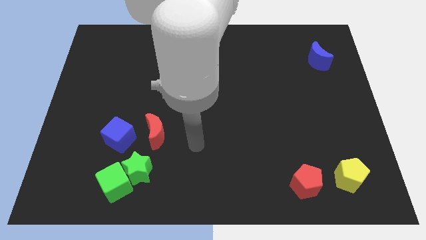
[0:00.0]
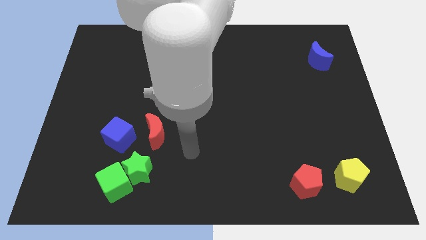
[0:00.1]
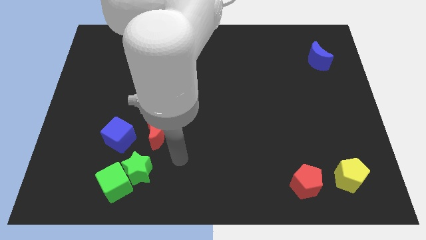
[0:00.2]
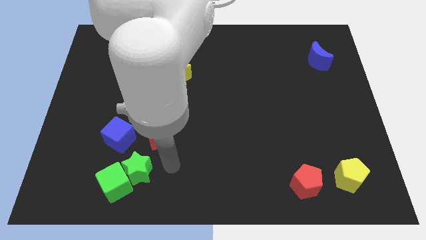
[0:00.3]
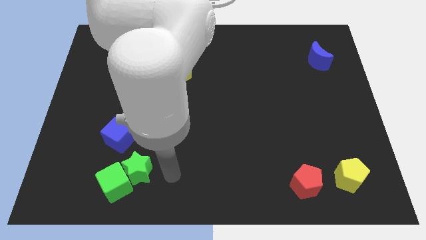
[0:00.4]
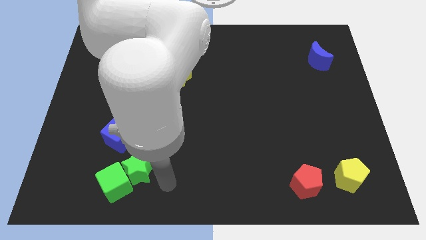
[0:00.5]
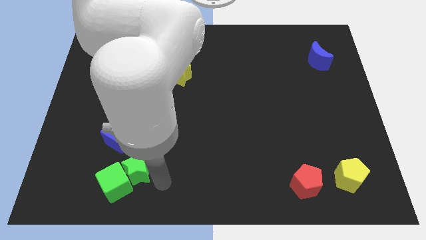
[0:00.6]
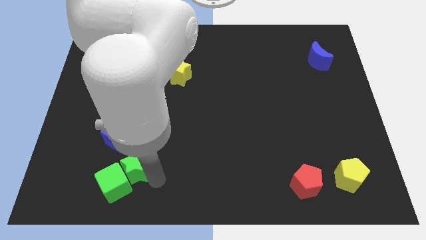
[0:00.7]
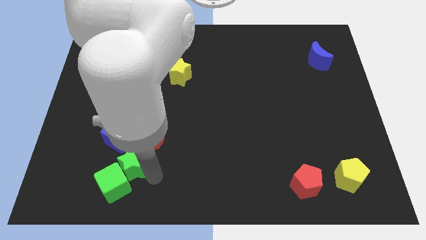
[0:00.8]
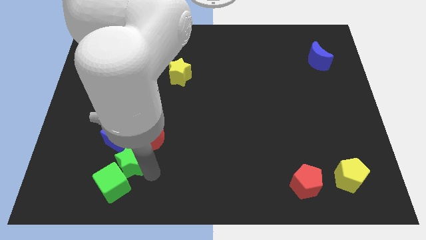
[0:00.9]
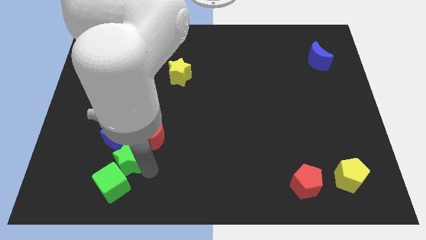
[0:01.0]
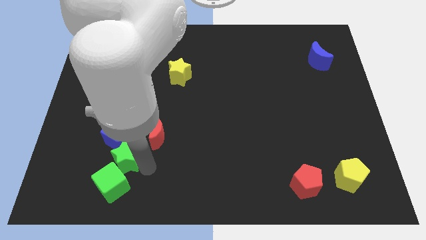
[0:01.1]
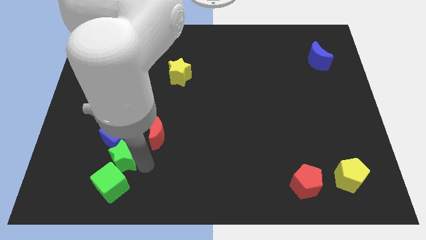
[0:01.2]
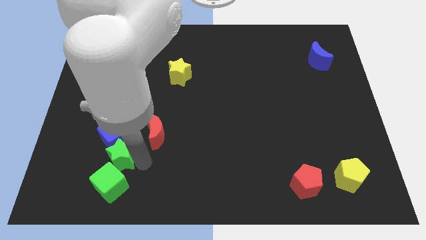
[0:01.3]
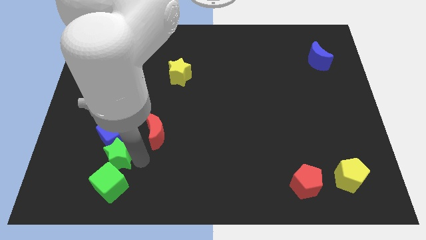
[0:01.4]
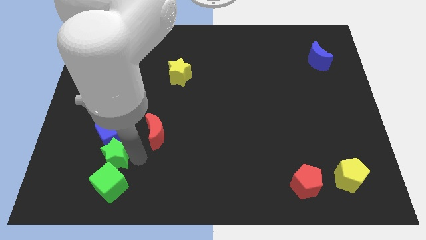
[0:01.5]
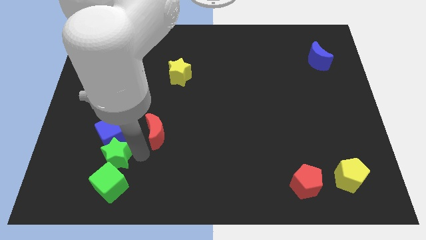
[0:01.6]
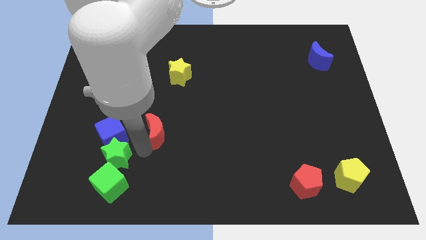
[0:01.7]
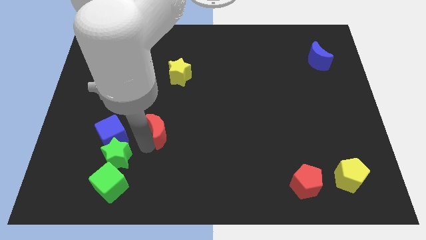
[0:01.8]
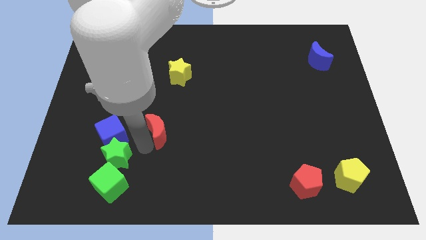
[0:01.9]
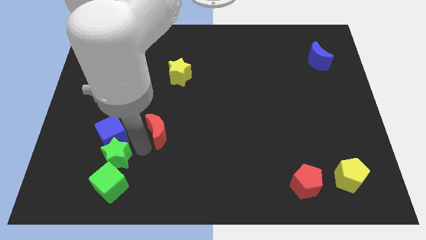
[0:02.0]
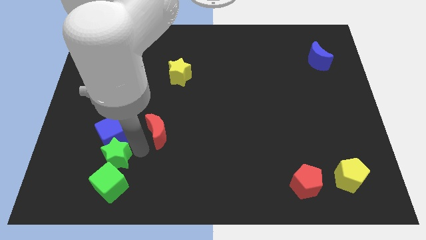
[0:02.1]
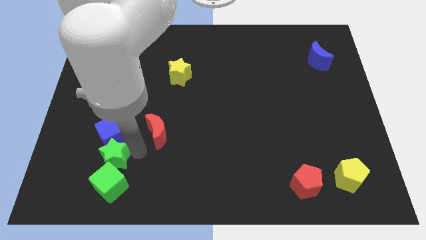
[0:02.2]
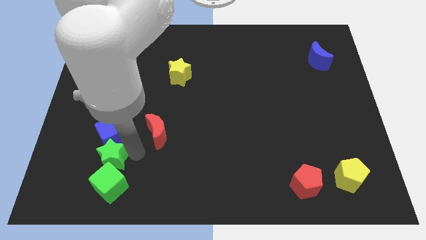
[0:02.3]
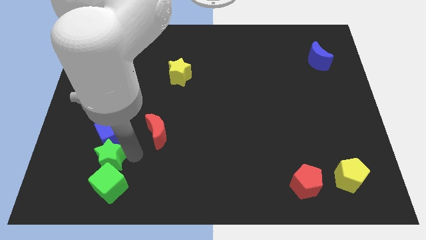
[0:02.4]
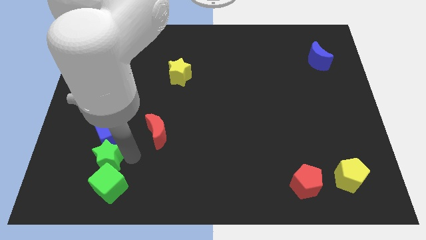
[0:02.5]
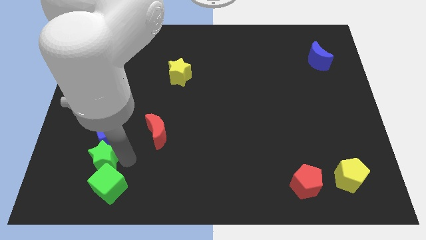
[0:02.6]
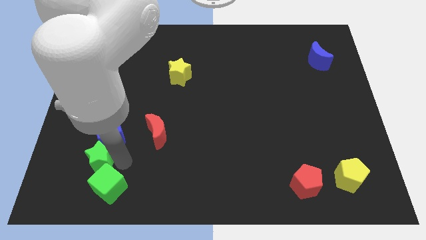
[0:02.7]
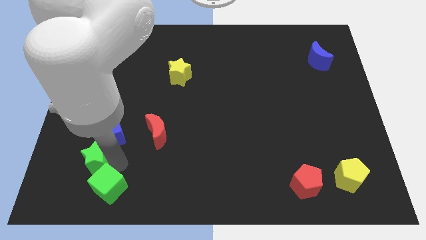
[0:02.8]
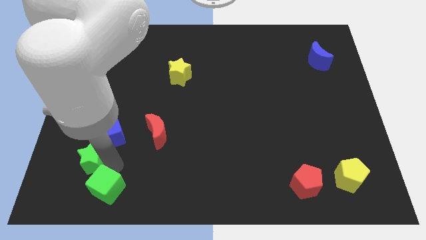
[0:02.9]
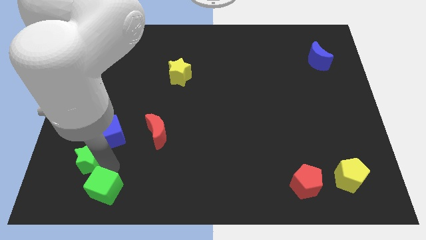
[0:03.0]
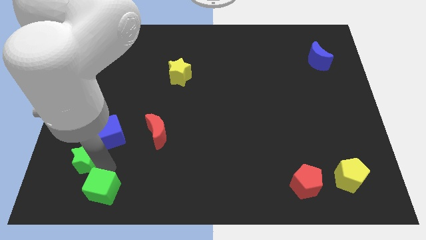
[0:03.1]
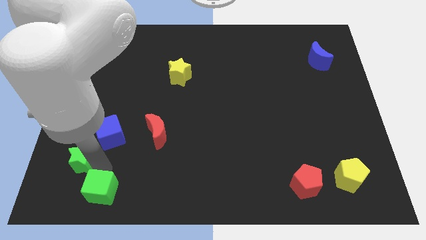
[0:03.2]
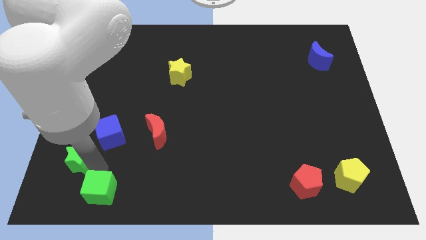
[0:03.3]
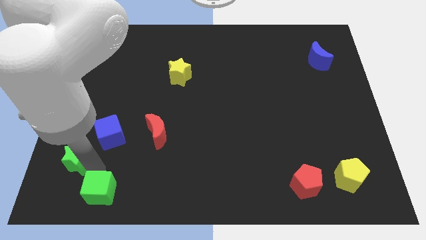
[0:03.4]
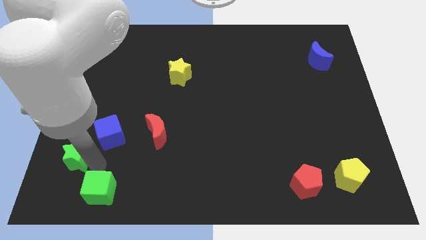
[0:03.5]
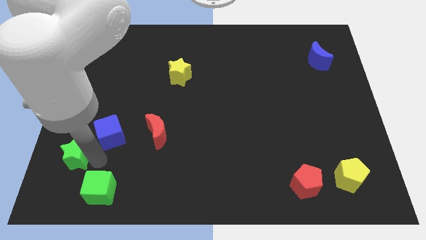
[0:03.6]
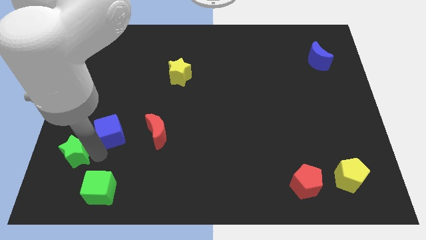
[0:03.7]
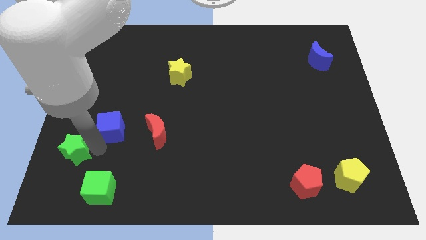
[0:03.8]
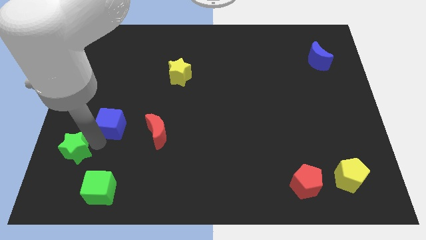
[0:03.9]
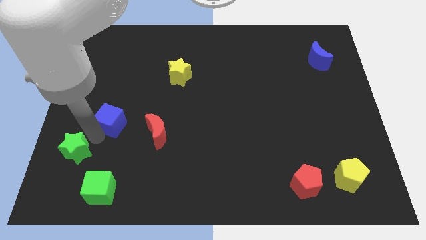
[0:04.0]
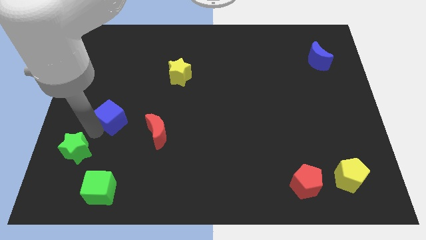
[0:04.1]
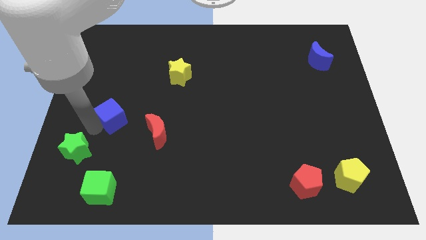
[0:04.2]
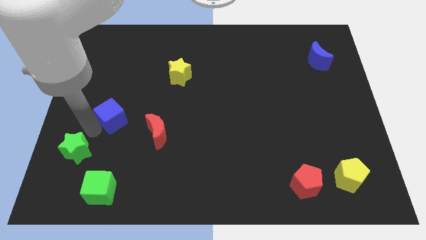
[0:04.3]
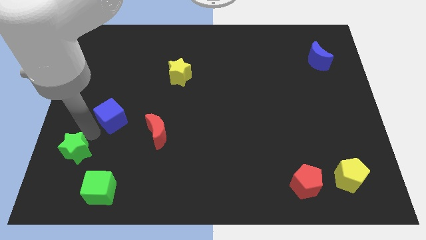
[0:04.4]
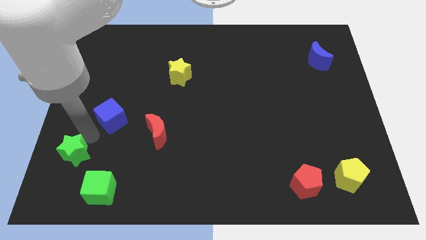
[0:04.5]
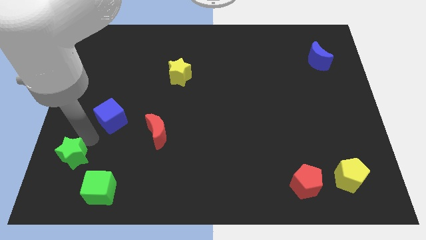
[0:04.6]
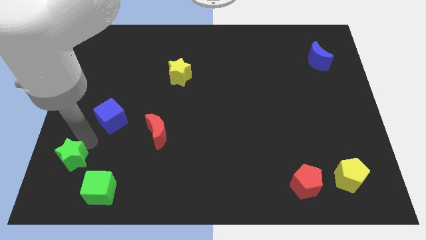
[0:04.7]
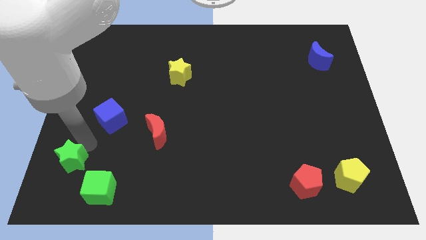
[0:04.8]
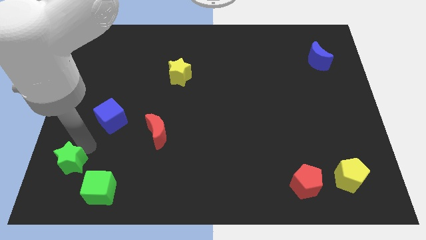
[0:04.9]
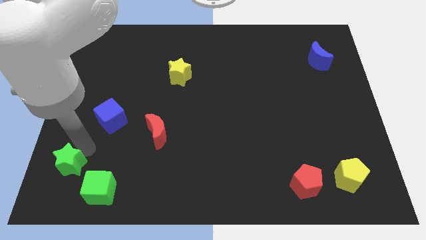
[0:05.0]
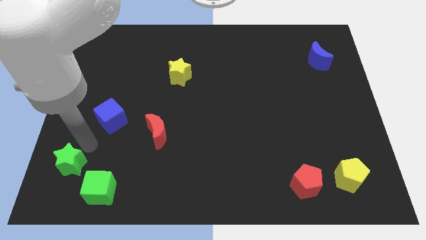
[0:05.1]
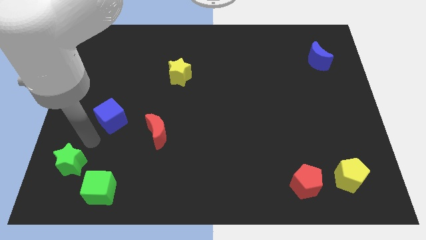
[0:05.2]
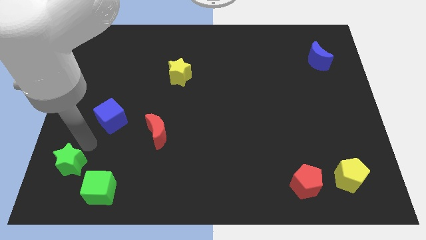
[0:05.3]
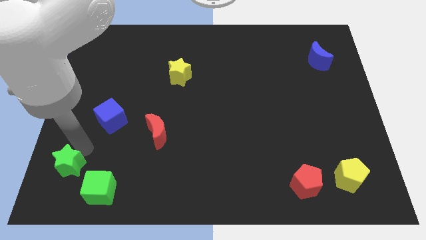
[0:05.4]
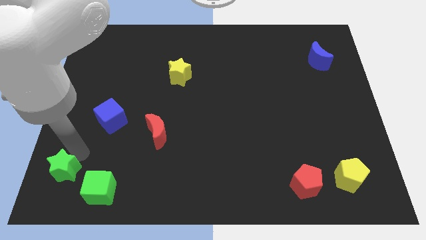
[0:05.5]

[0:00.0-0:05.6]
move the green star to the lower left corner

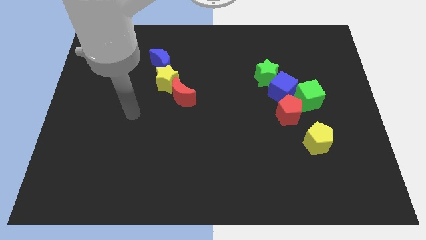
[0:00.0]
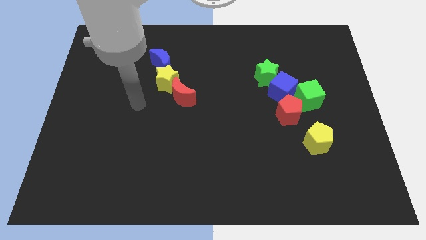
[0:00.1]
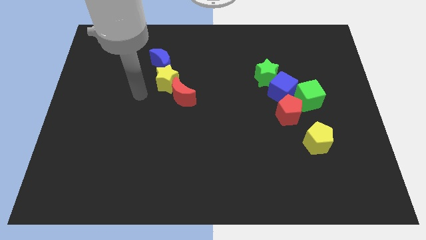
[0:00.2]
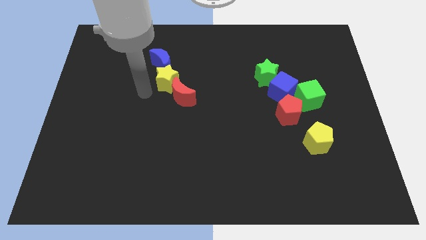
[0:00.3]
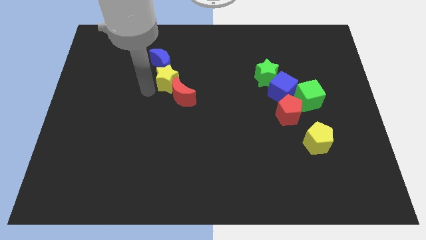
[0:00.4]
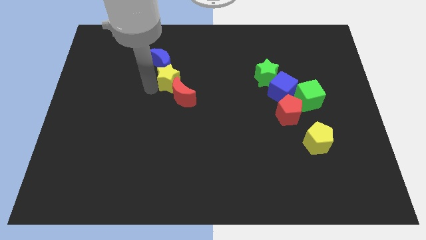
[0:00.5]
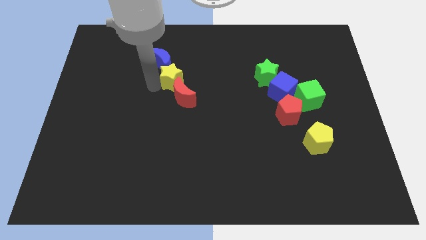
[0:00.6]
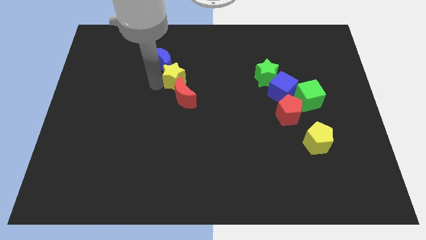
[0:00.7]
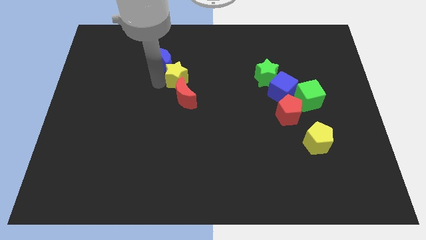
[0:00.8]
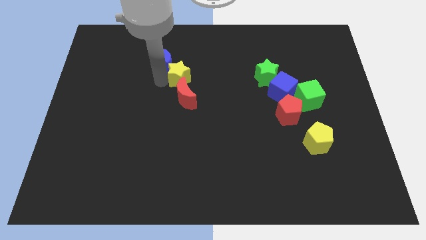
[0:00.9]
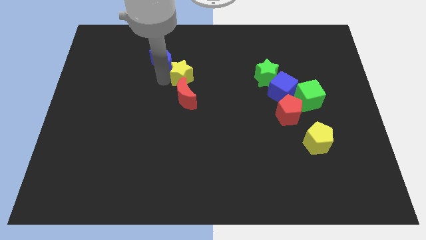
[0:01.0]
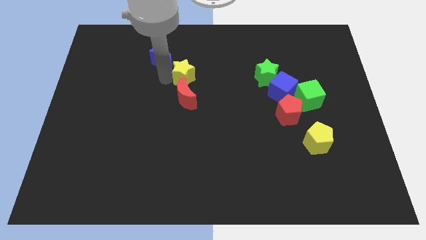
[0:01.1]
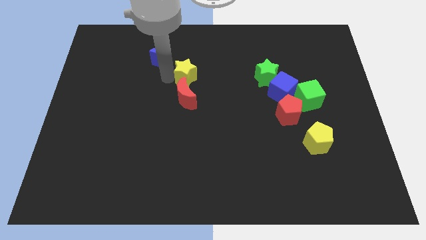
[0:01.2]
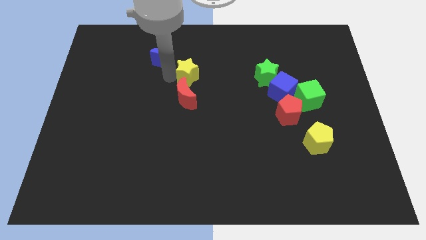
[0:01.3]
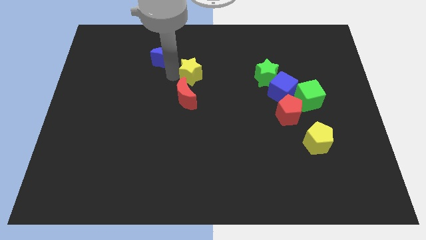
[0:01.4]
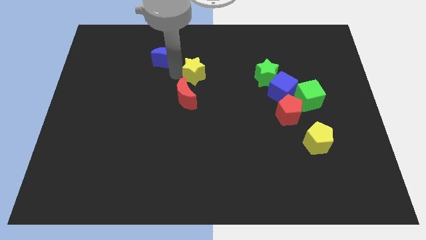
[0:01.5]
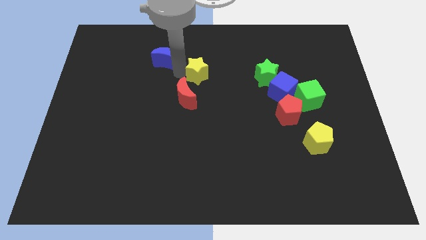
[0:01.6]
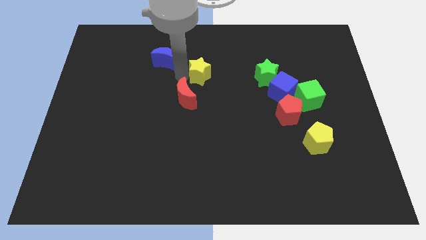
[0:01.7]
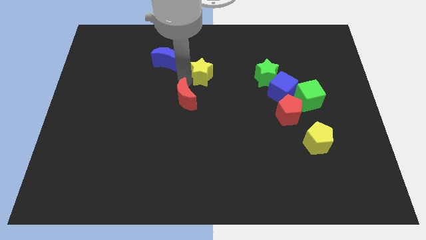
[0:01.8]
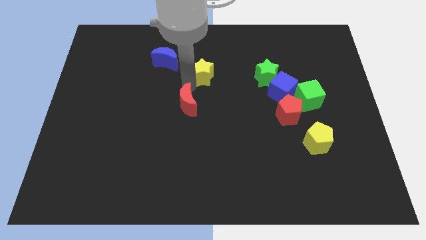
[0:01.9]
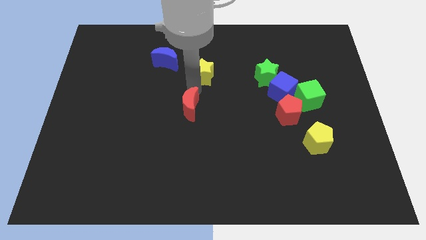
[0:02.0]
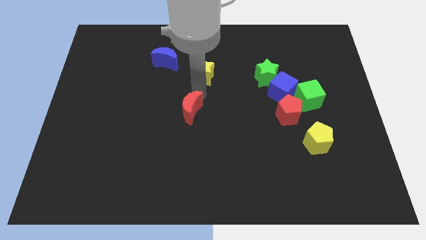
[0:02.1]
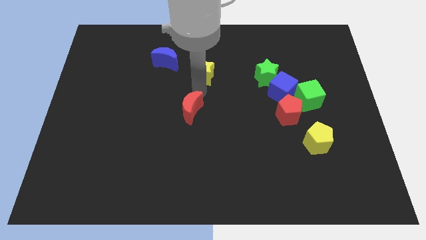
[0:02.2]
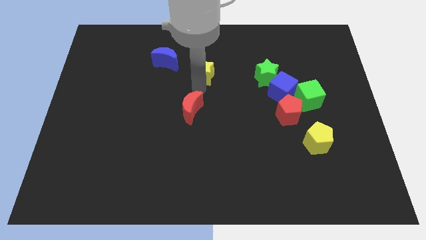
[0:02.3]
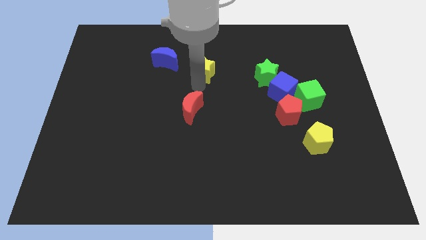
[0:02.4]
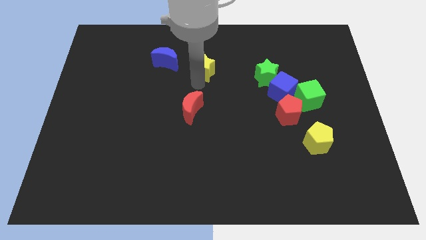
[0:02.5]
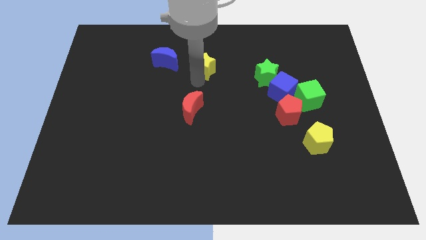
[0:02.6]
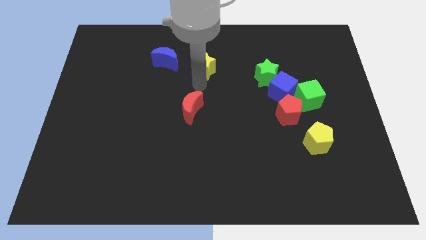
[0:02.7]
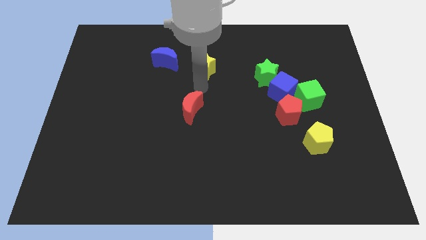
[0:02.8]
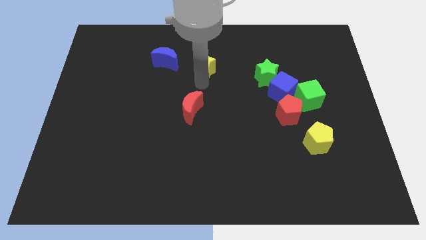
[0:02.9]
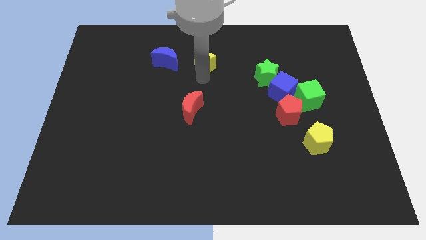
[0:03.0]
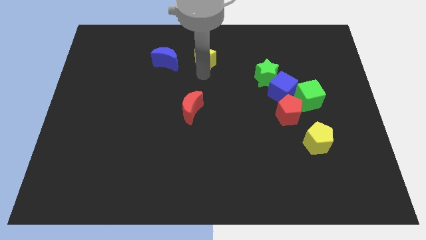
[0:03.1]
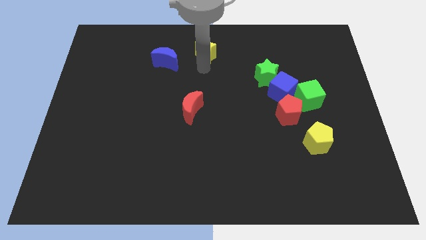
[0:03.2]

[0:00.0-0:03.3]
put the yellow star to the towards your base
